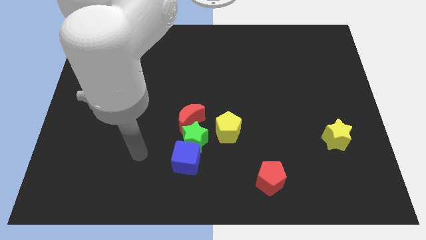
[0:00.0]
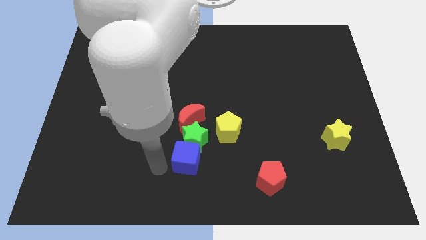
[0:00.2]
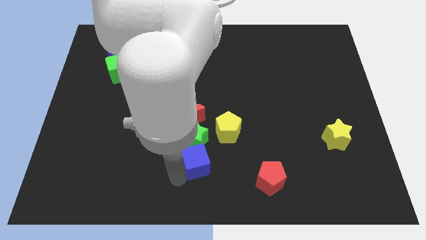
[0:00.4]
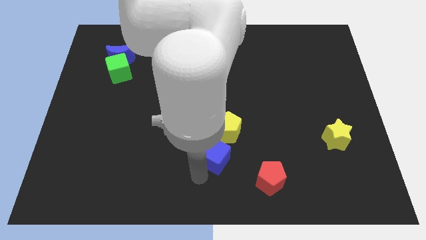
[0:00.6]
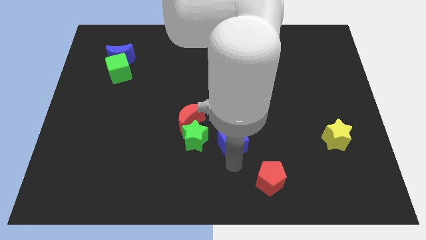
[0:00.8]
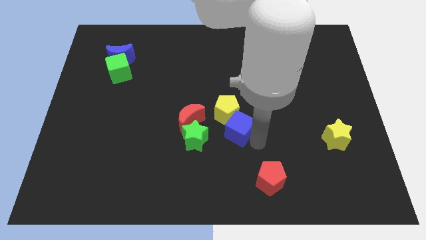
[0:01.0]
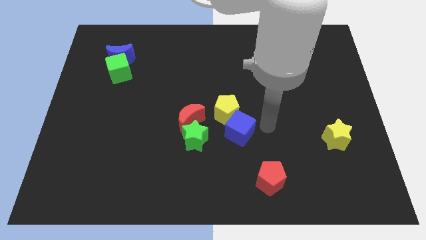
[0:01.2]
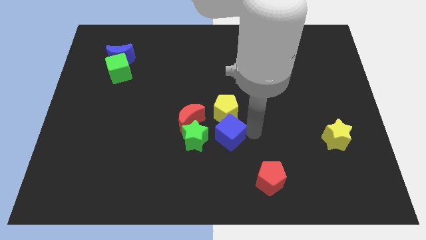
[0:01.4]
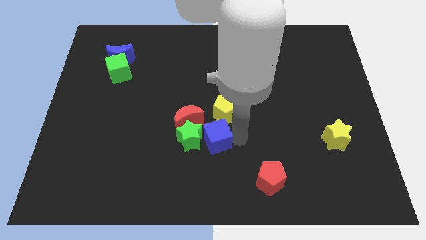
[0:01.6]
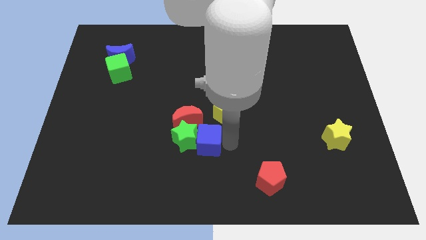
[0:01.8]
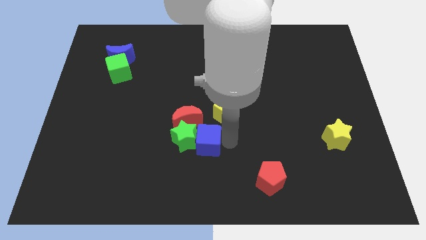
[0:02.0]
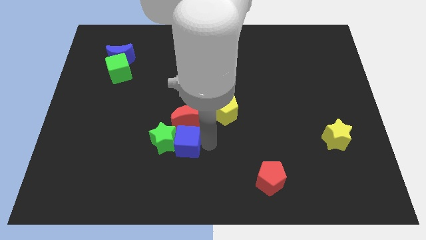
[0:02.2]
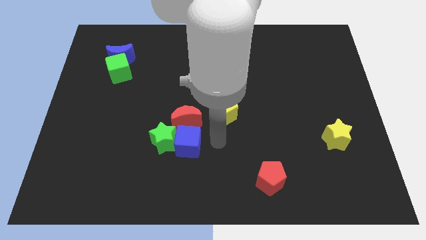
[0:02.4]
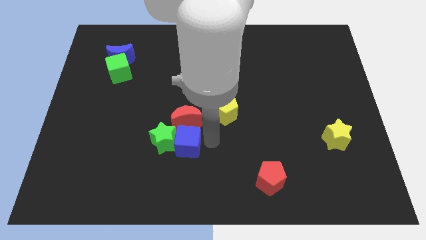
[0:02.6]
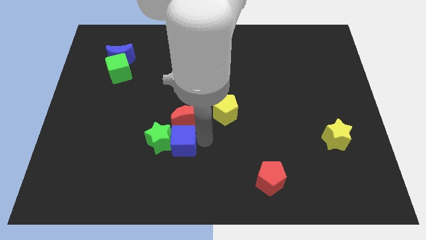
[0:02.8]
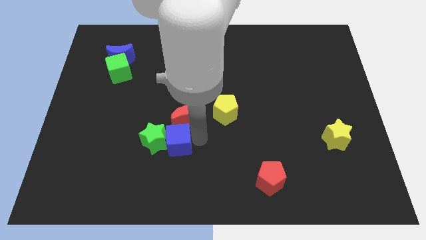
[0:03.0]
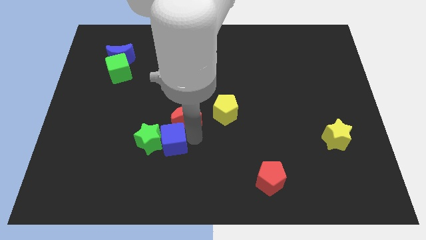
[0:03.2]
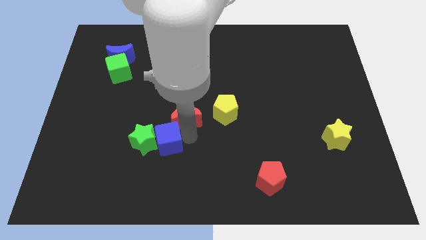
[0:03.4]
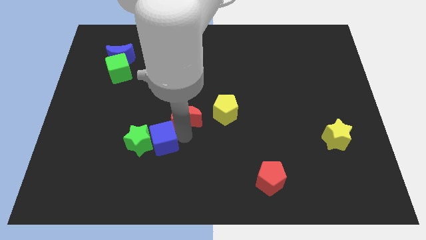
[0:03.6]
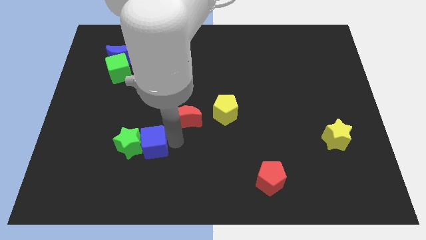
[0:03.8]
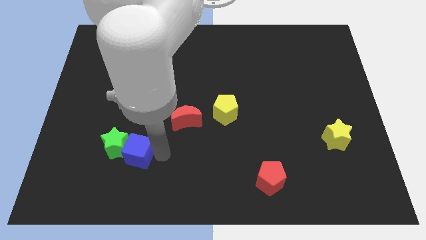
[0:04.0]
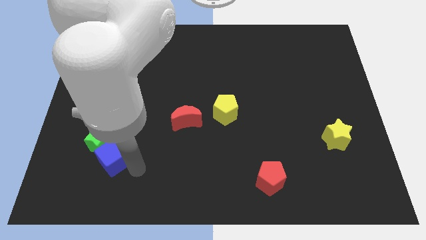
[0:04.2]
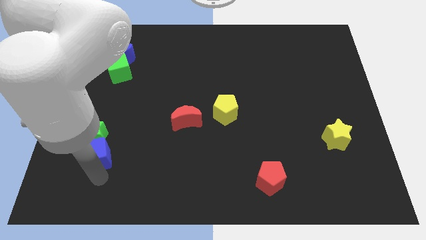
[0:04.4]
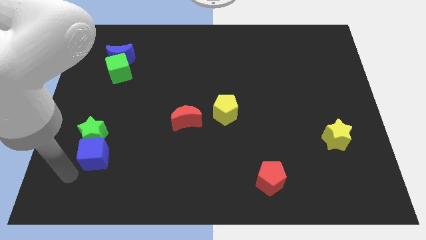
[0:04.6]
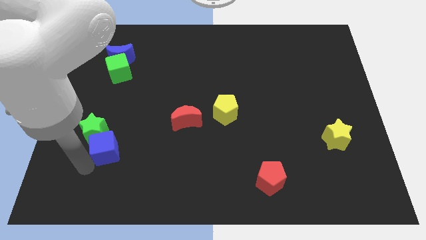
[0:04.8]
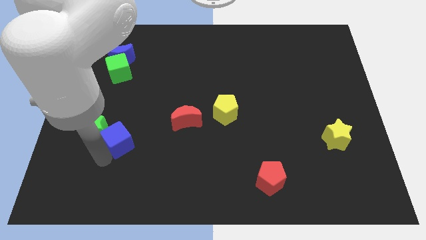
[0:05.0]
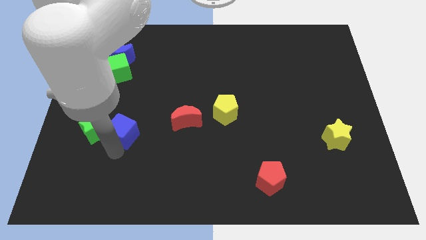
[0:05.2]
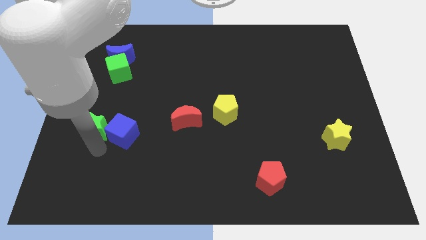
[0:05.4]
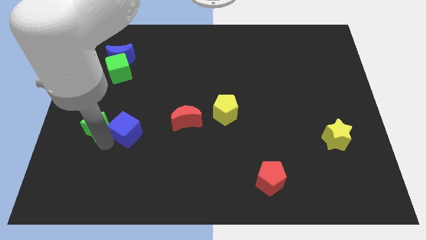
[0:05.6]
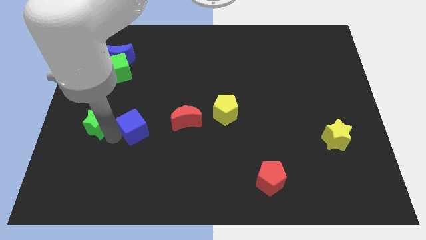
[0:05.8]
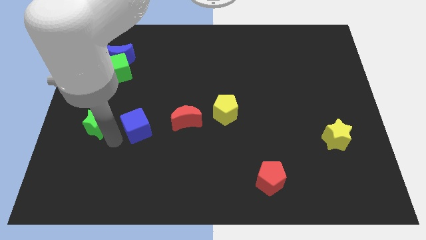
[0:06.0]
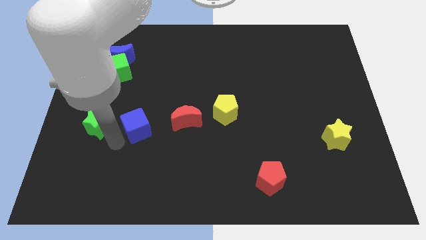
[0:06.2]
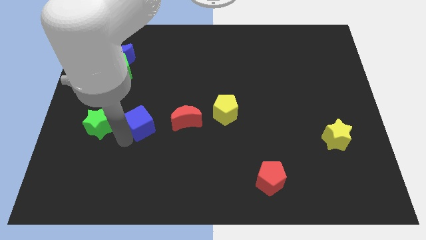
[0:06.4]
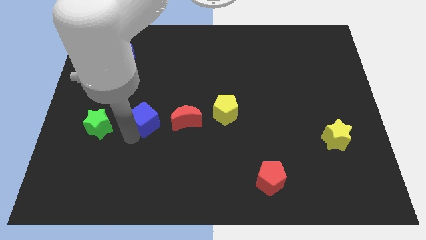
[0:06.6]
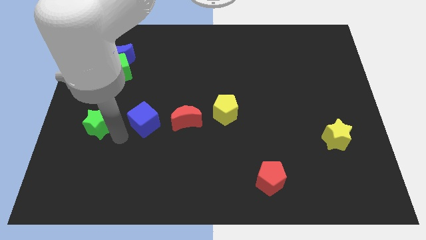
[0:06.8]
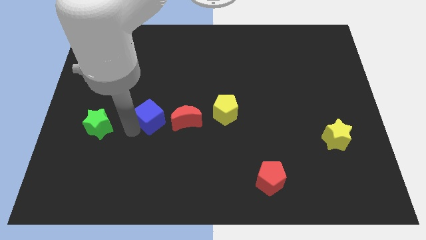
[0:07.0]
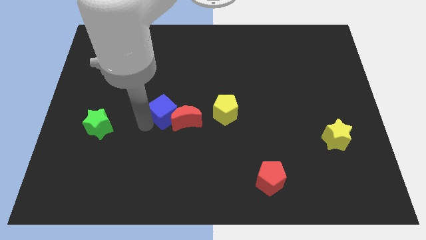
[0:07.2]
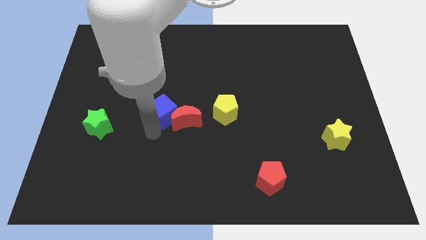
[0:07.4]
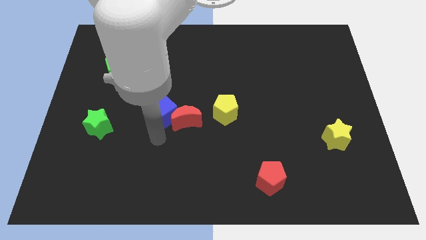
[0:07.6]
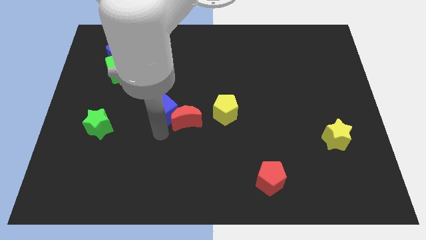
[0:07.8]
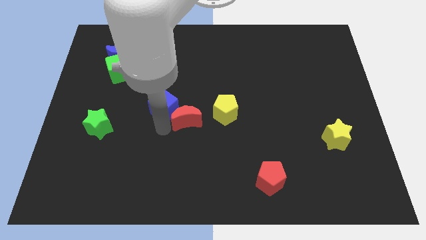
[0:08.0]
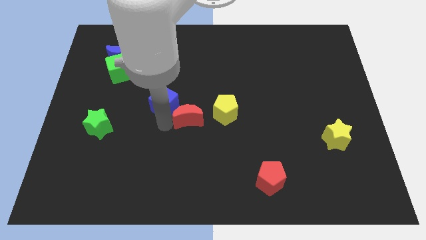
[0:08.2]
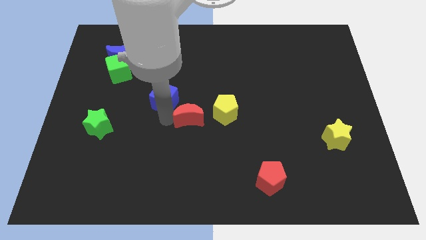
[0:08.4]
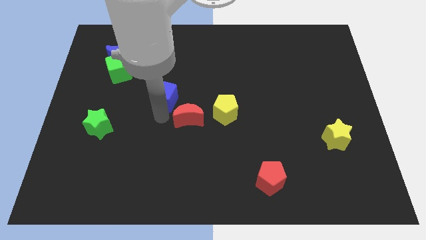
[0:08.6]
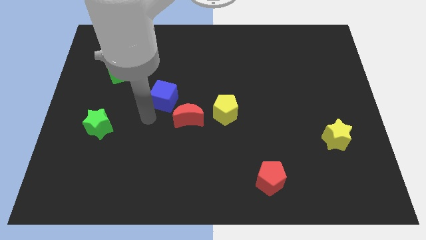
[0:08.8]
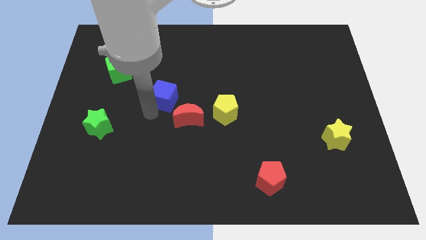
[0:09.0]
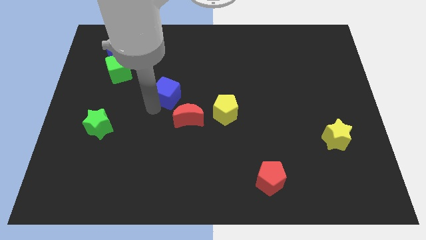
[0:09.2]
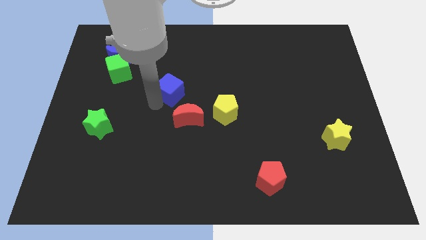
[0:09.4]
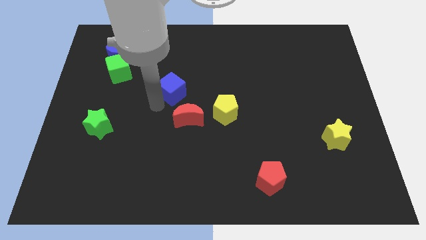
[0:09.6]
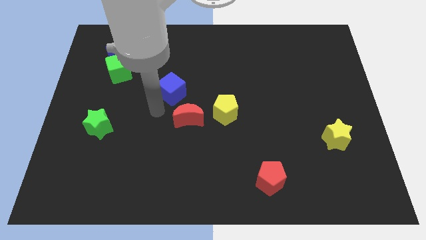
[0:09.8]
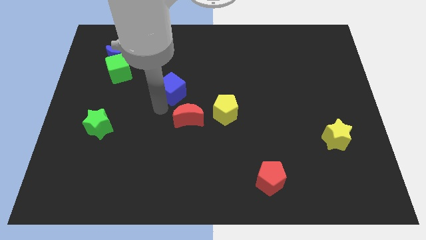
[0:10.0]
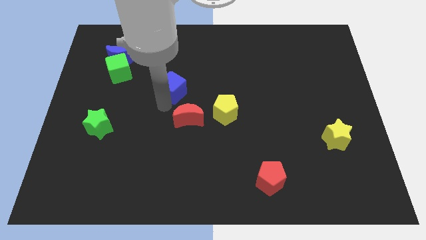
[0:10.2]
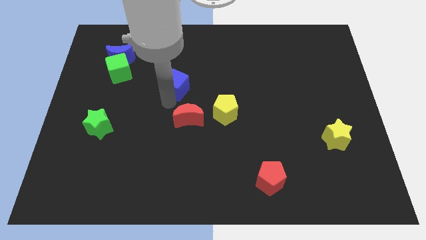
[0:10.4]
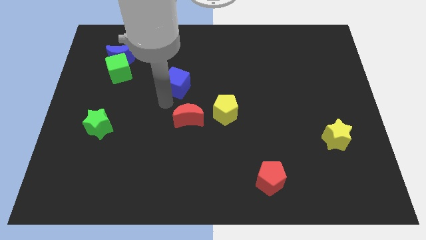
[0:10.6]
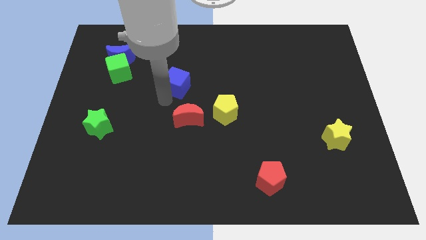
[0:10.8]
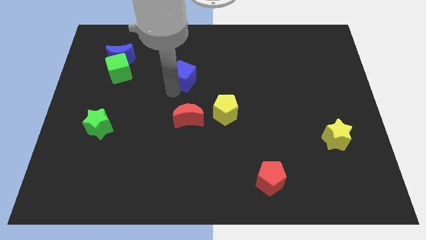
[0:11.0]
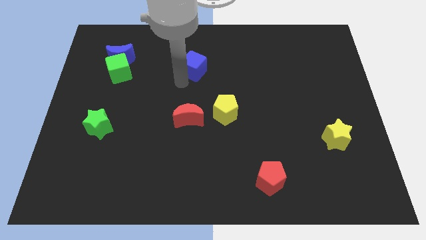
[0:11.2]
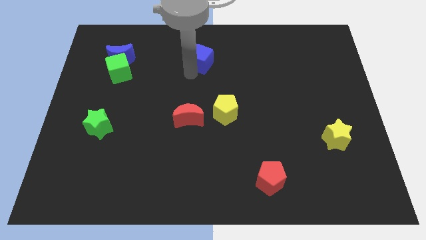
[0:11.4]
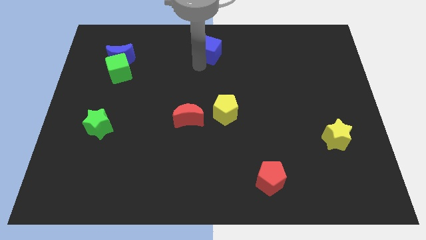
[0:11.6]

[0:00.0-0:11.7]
push the blue cube to the top side

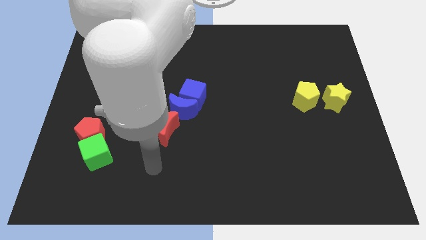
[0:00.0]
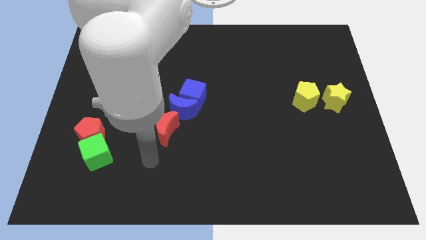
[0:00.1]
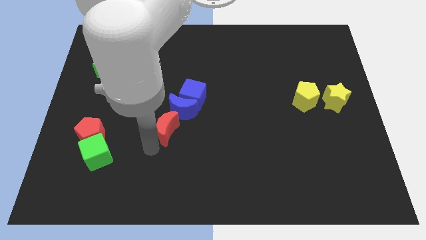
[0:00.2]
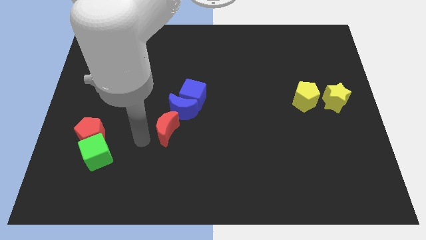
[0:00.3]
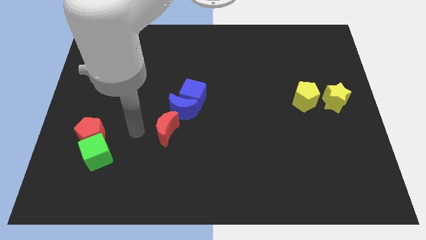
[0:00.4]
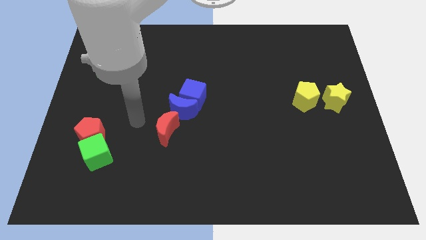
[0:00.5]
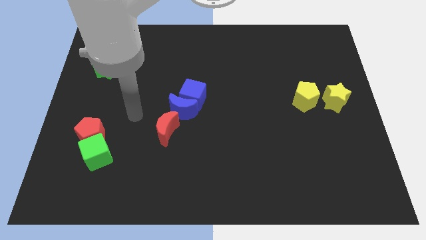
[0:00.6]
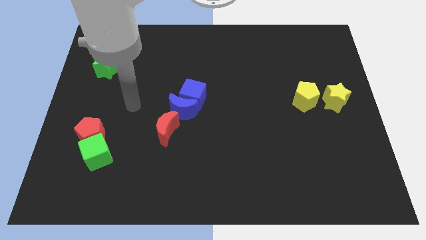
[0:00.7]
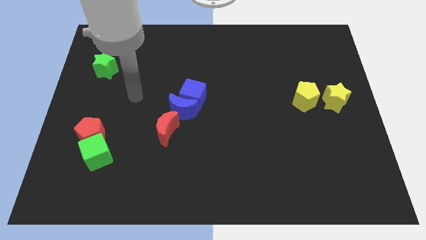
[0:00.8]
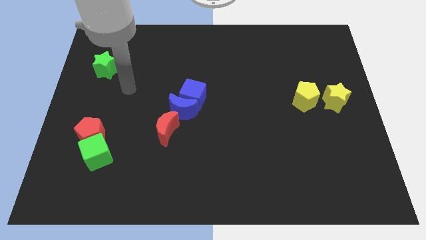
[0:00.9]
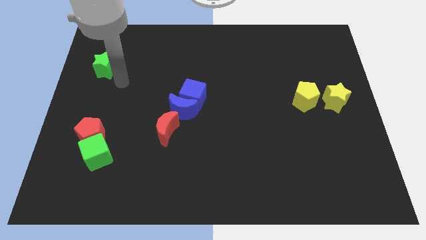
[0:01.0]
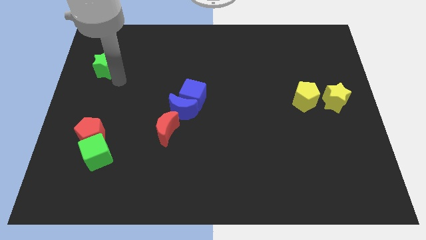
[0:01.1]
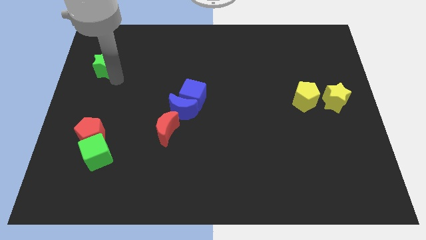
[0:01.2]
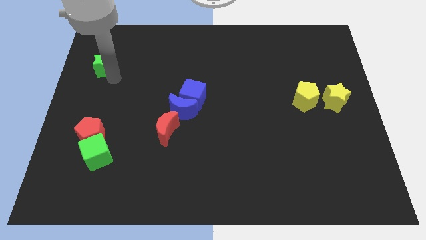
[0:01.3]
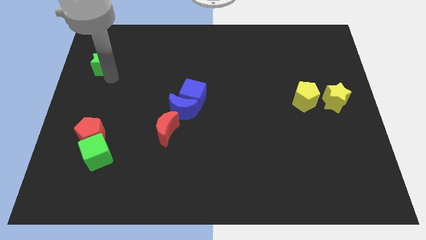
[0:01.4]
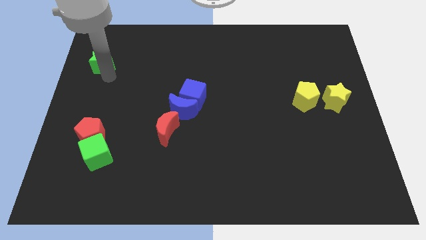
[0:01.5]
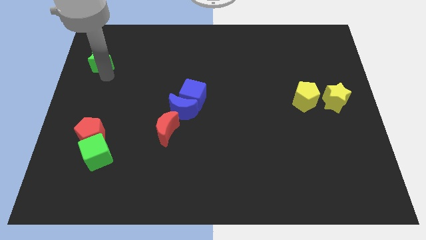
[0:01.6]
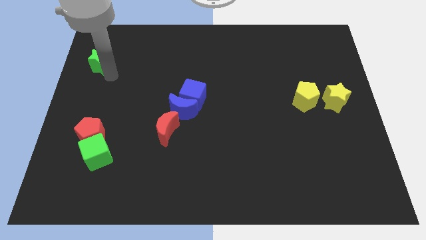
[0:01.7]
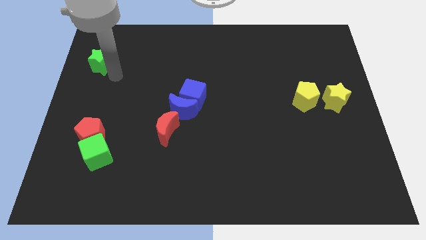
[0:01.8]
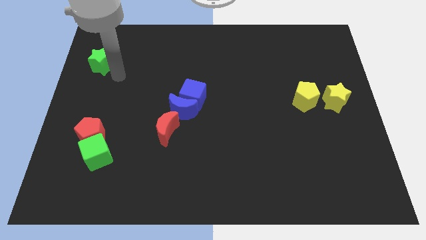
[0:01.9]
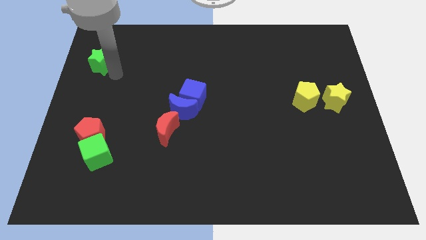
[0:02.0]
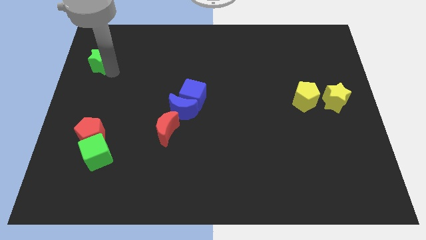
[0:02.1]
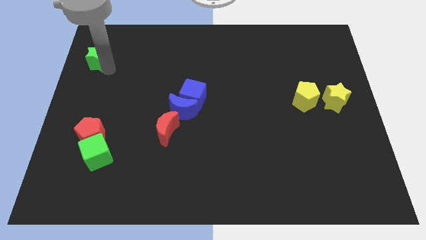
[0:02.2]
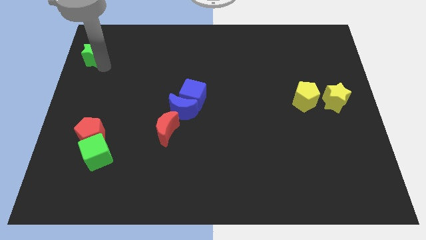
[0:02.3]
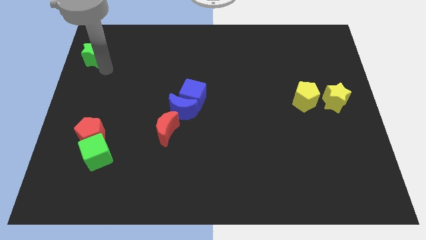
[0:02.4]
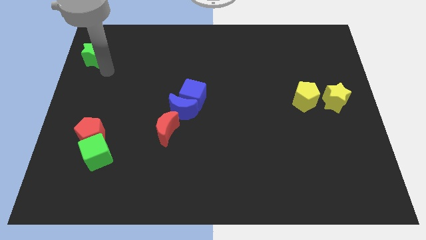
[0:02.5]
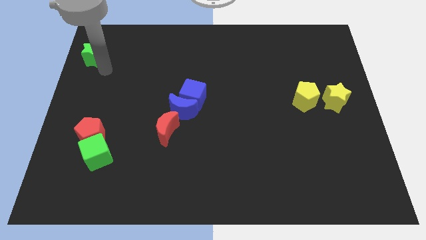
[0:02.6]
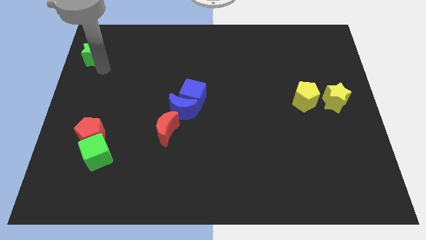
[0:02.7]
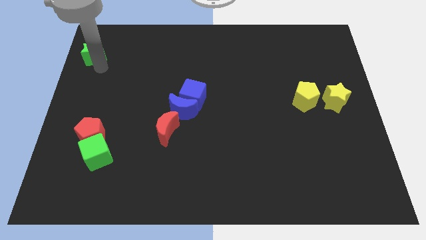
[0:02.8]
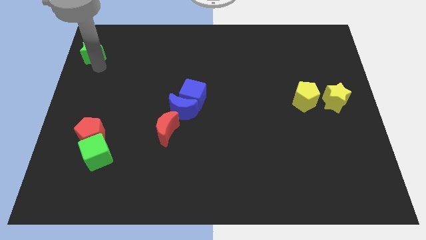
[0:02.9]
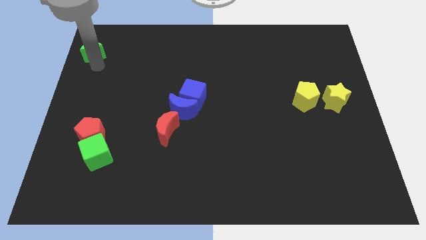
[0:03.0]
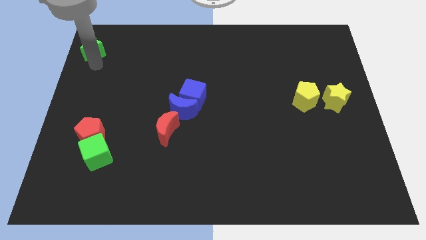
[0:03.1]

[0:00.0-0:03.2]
slide the green star to the top left of the board
